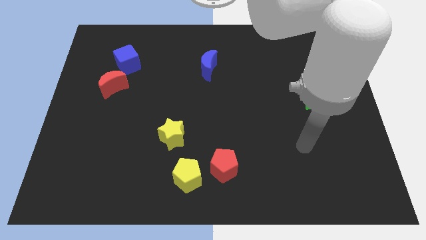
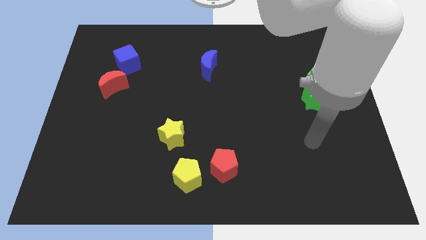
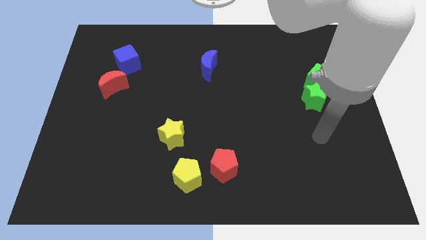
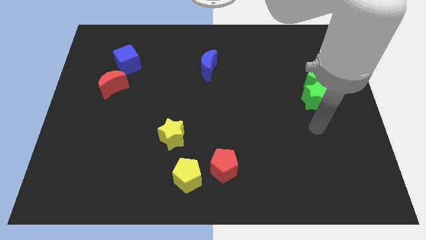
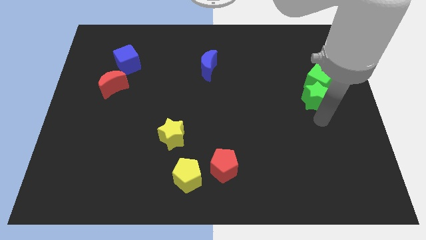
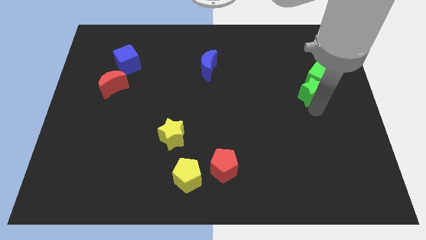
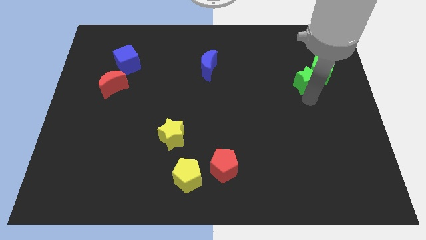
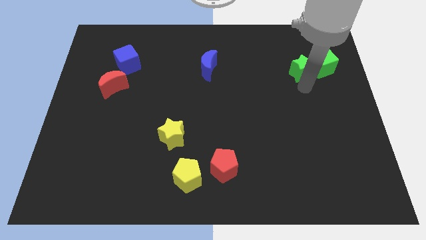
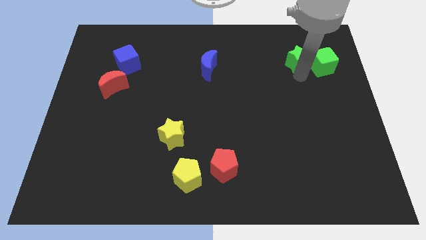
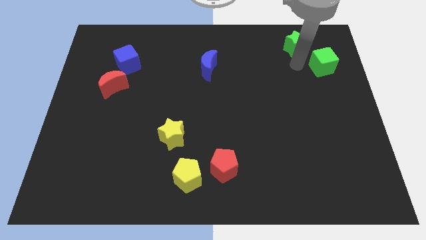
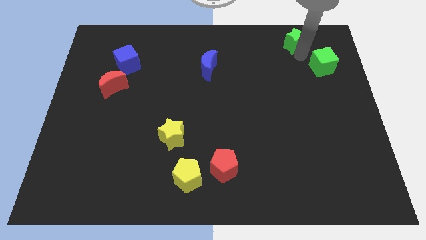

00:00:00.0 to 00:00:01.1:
pull the green cube apart from the green star

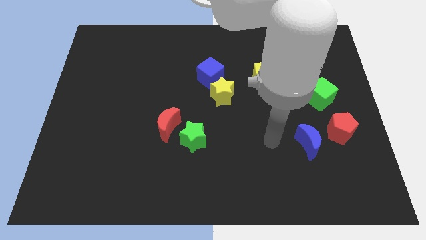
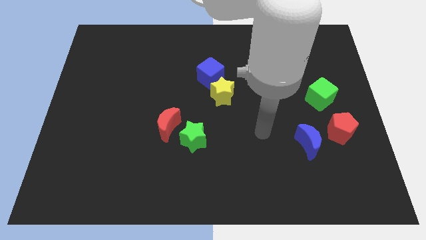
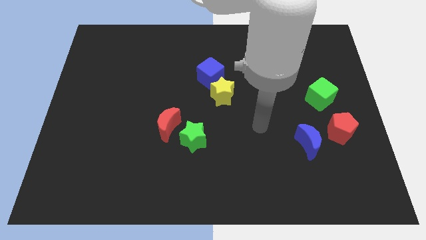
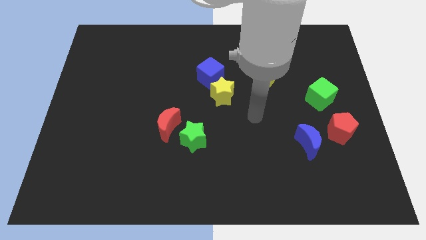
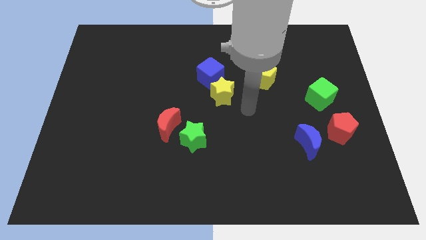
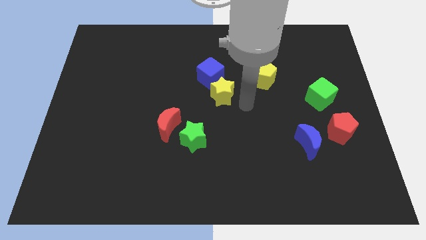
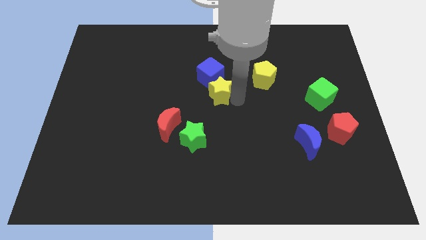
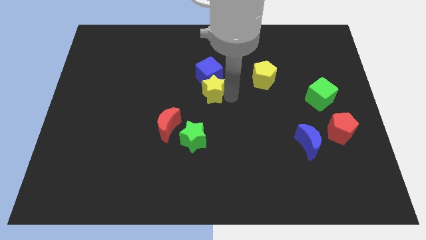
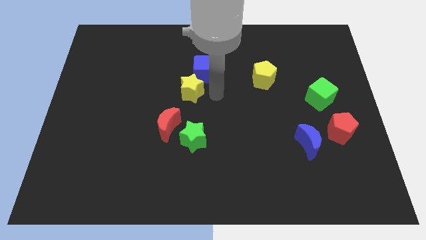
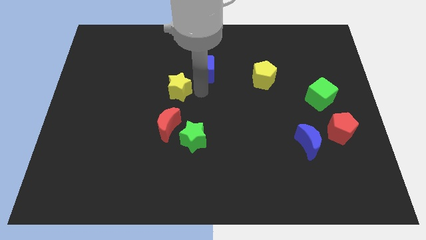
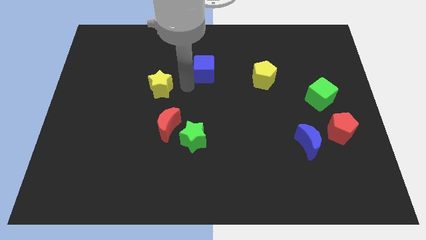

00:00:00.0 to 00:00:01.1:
move the blue cube away from the yellow star

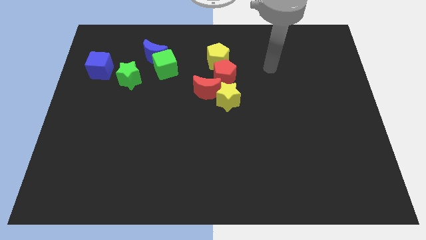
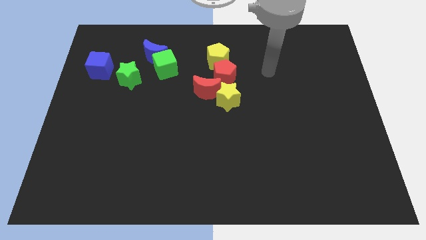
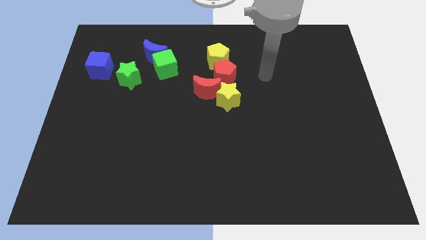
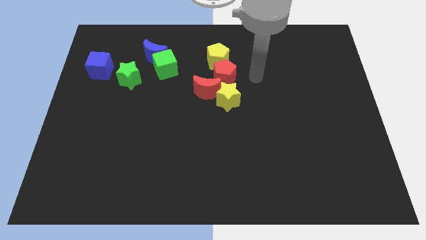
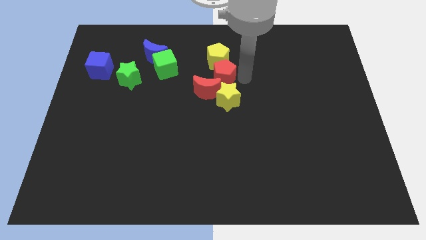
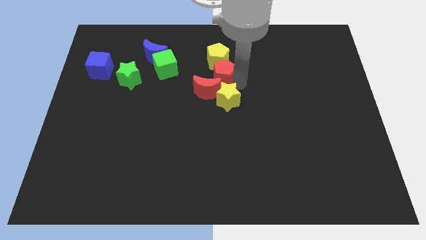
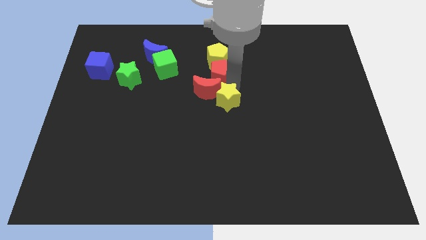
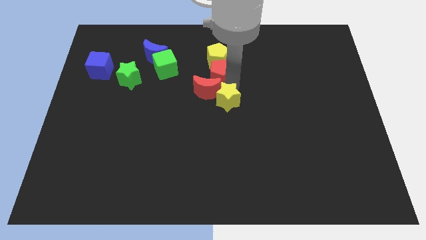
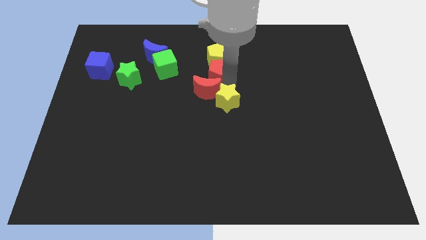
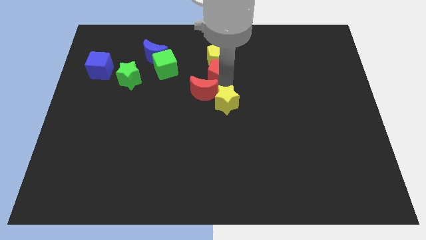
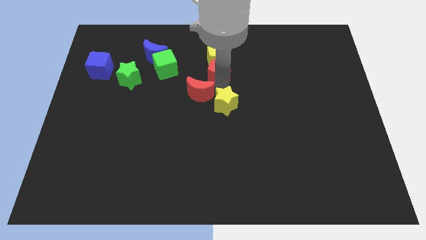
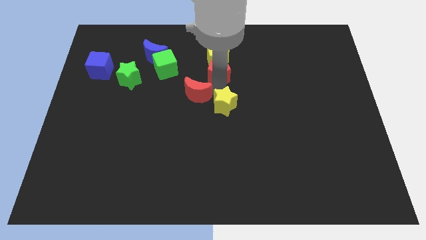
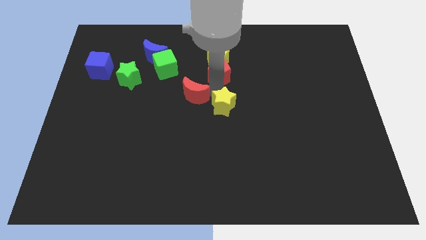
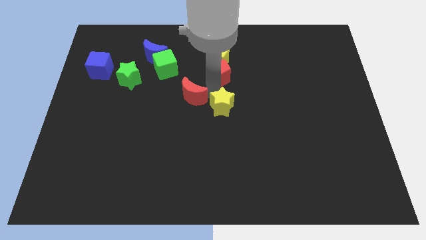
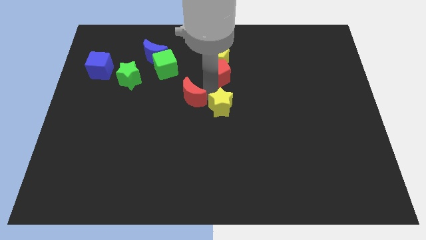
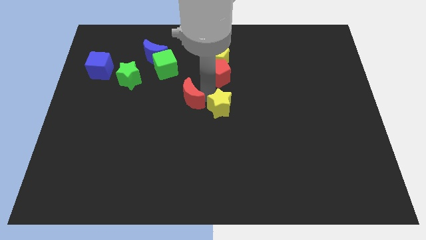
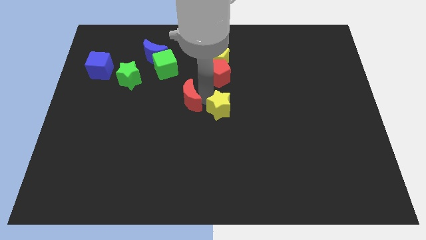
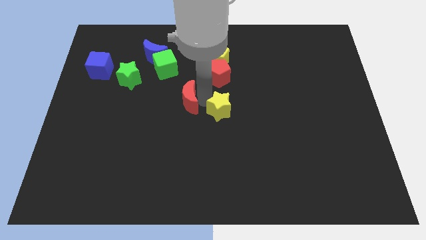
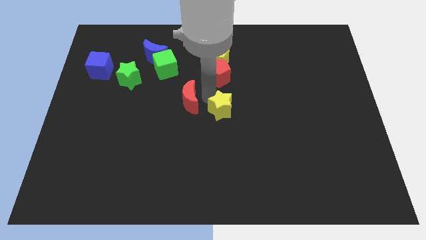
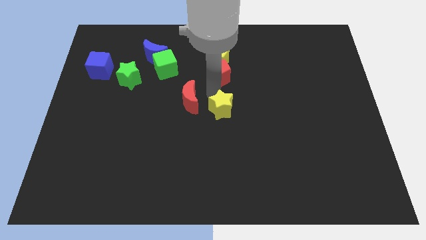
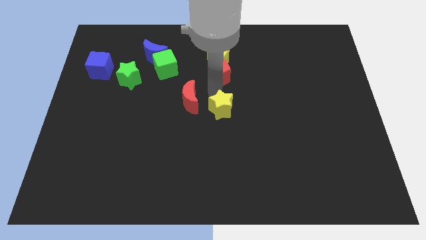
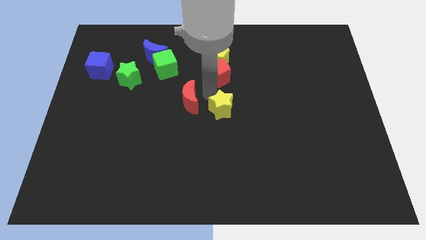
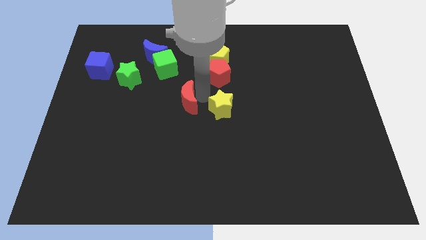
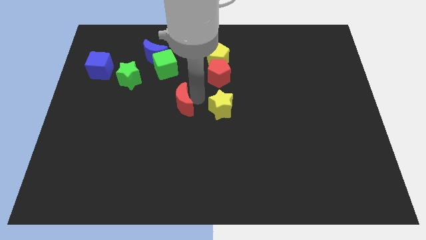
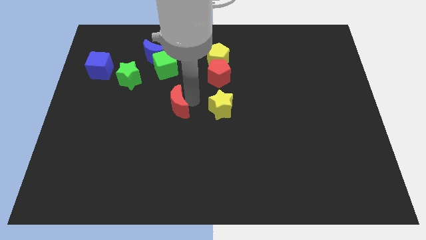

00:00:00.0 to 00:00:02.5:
separate the red moon from the yellow star and red pentagon

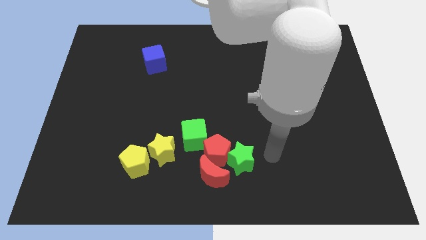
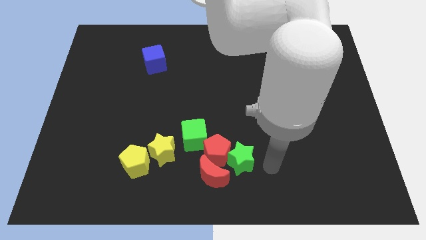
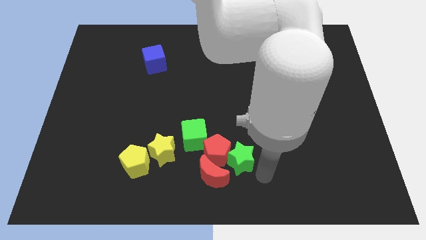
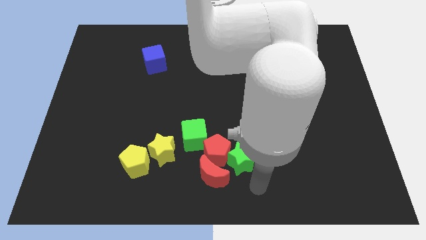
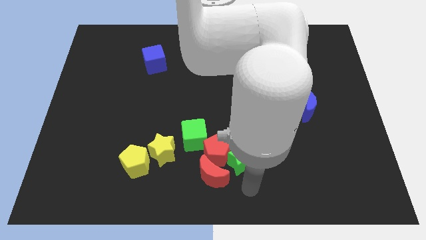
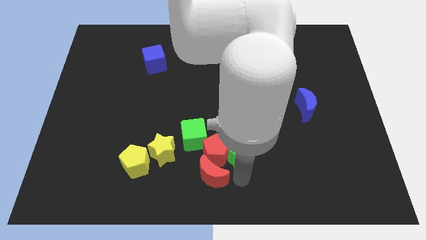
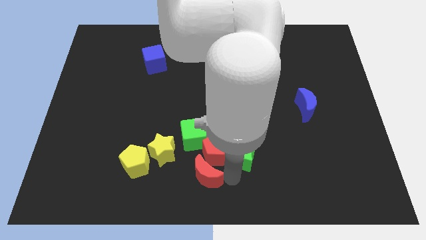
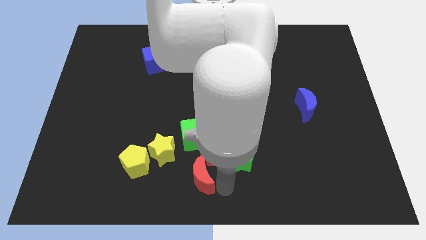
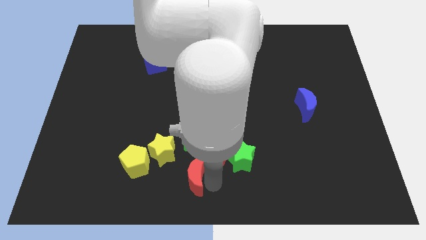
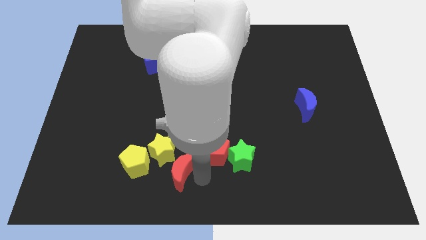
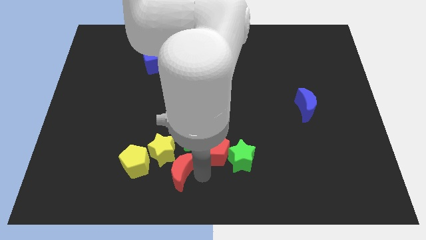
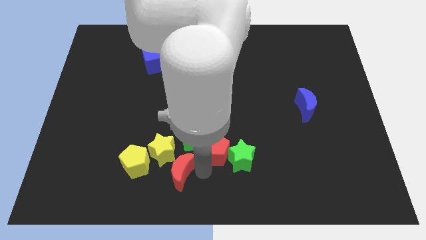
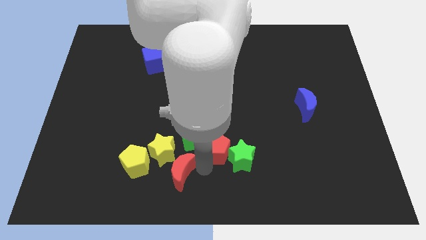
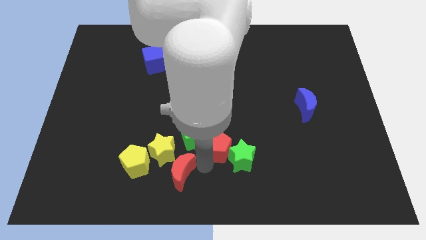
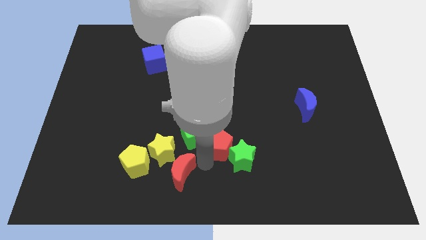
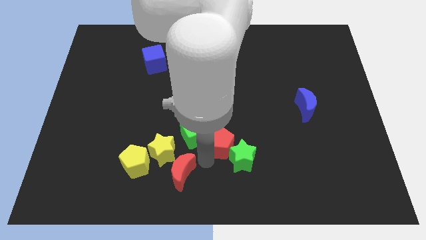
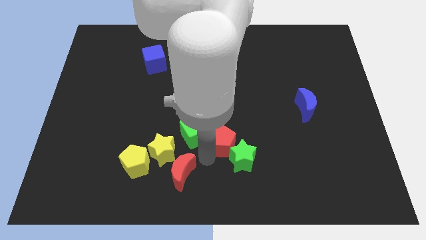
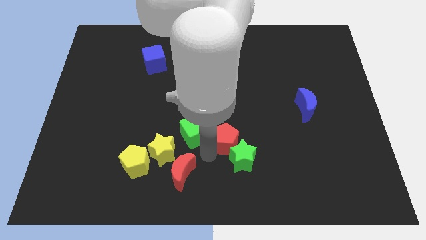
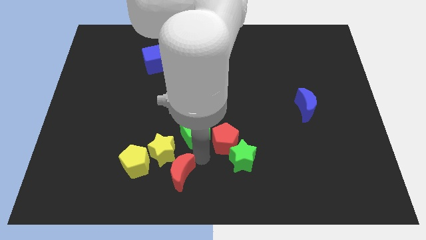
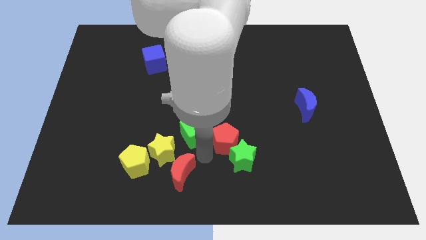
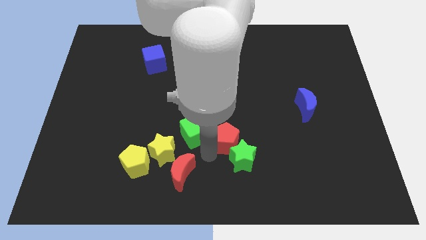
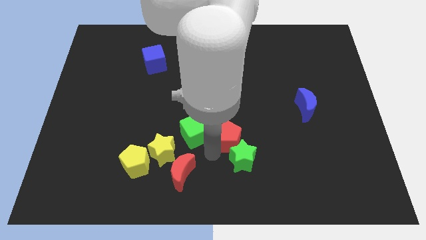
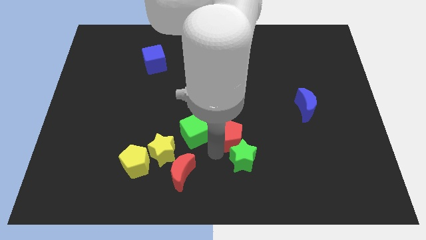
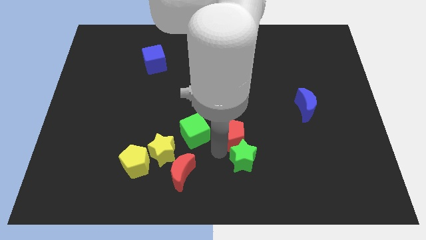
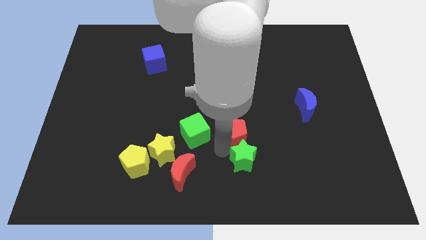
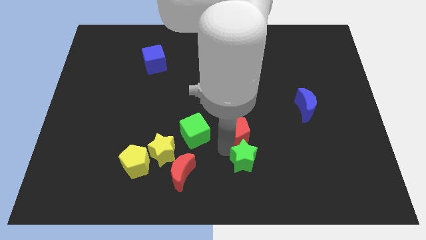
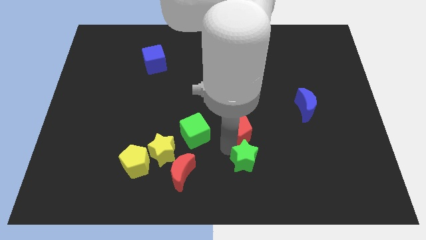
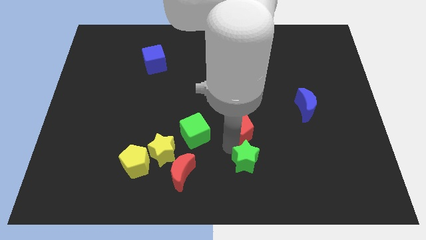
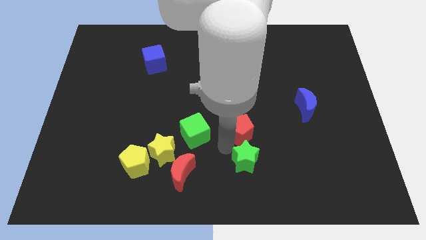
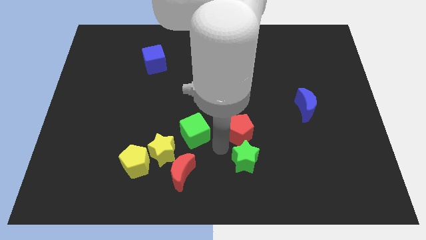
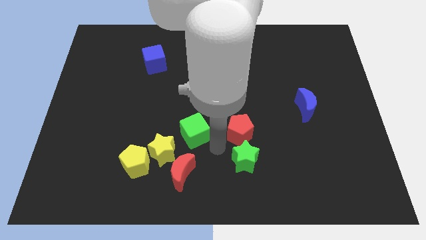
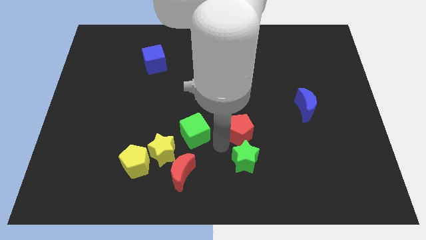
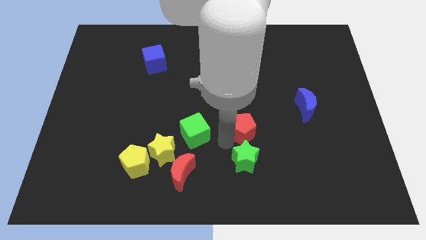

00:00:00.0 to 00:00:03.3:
move the red pentagon away from the clump

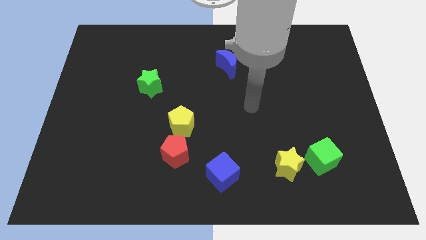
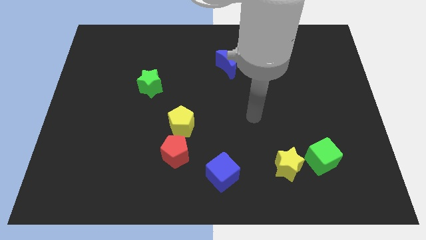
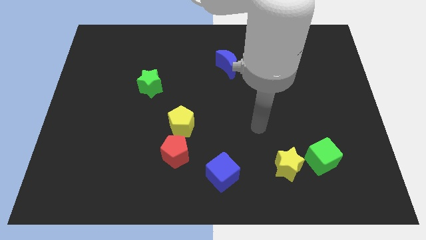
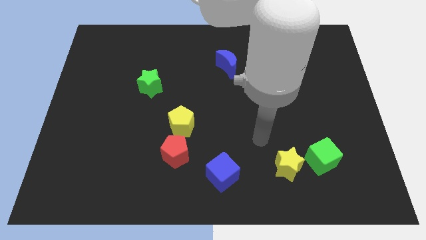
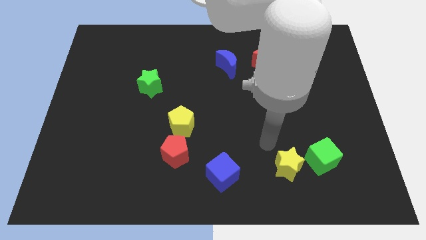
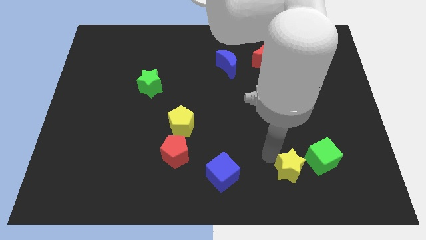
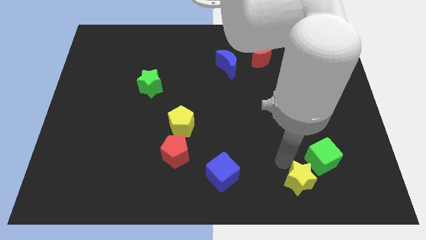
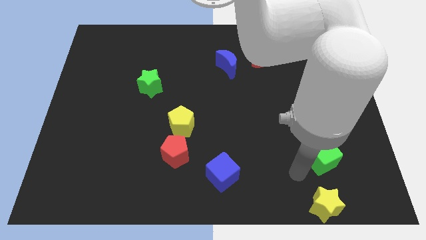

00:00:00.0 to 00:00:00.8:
separate the green cube from the yellow star

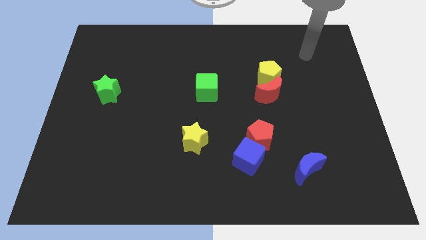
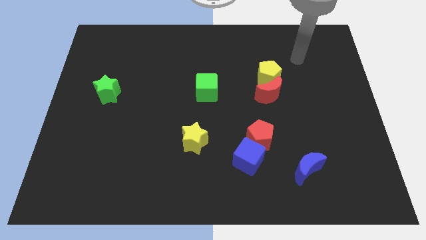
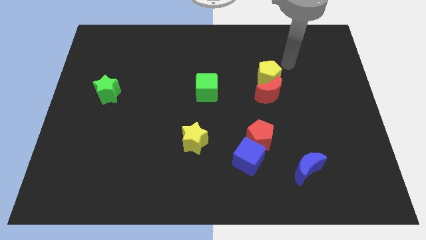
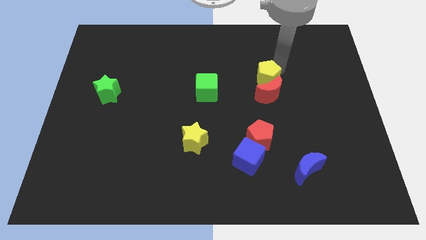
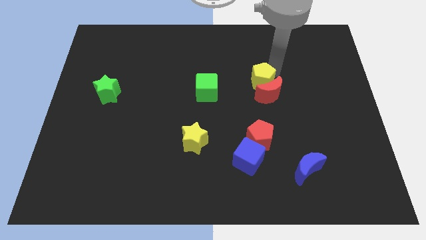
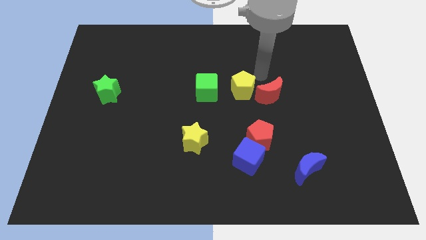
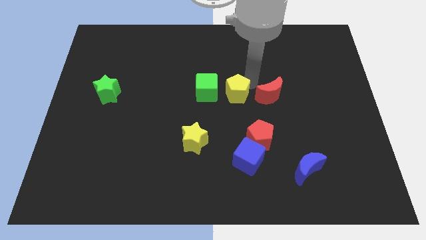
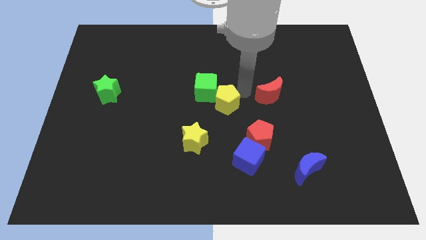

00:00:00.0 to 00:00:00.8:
pull the red moon apart from the yellow pentagon
